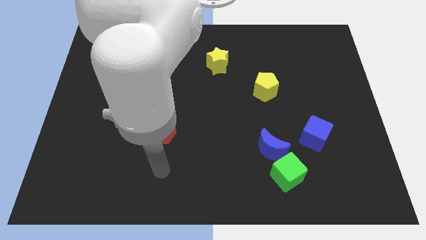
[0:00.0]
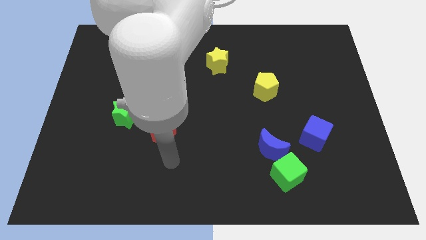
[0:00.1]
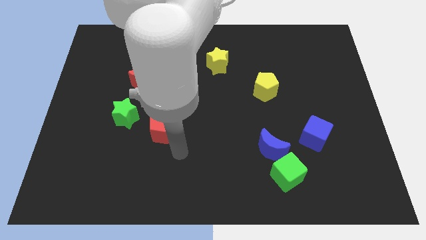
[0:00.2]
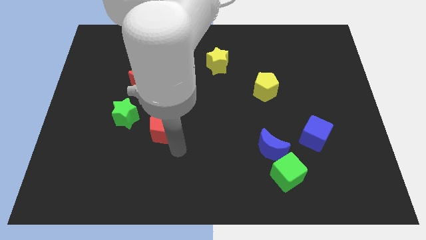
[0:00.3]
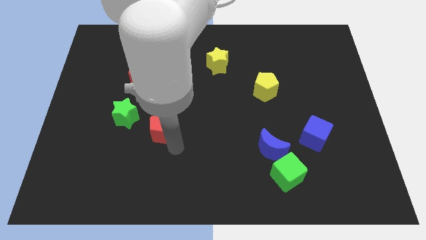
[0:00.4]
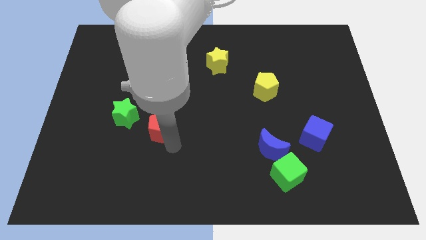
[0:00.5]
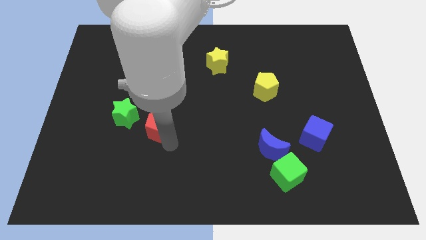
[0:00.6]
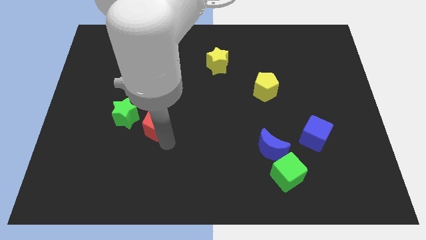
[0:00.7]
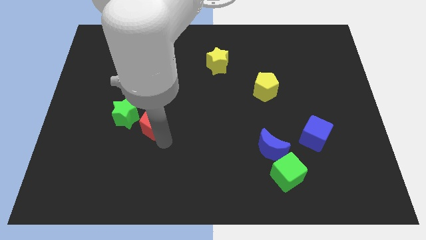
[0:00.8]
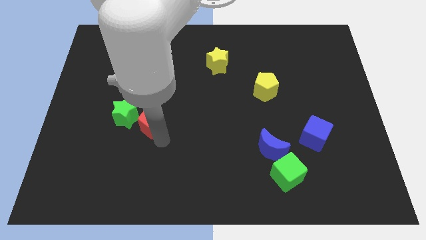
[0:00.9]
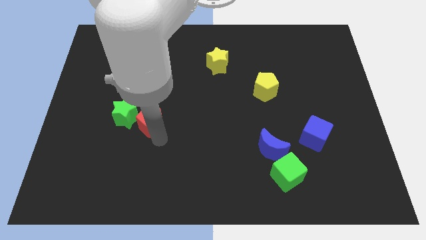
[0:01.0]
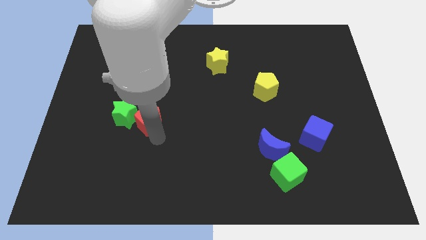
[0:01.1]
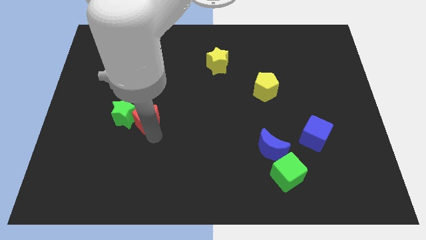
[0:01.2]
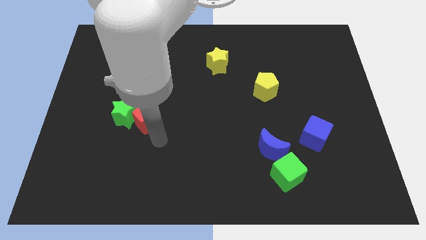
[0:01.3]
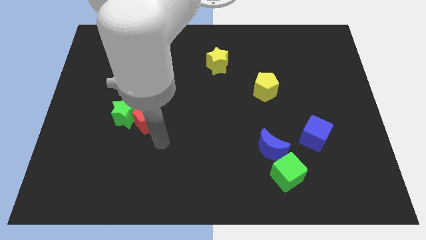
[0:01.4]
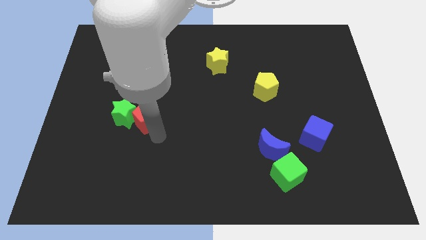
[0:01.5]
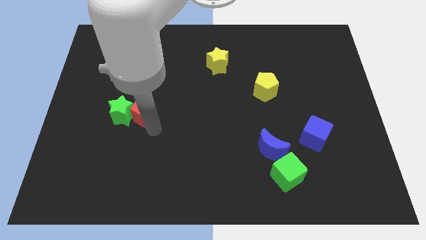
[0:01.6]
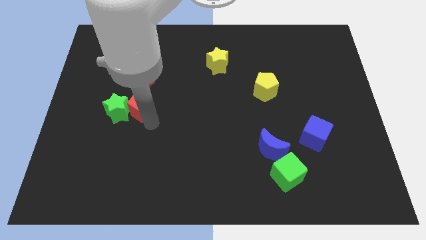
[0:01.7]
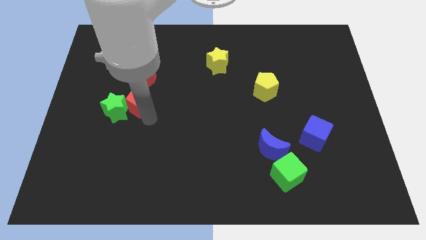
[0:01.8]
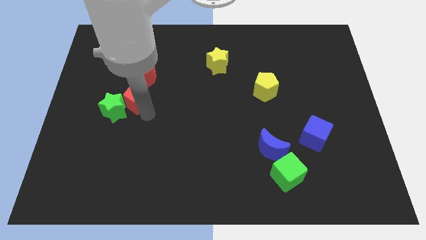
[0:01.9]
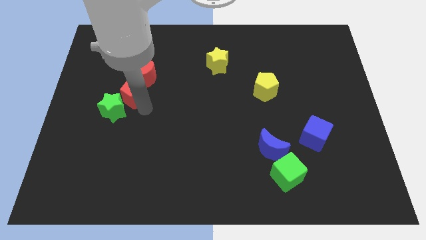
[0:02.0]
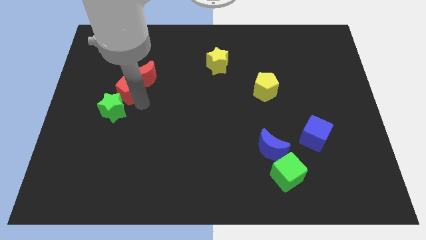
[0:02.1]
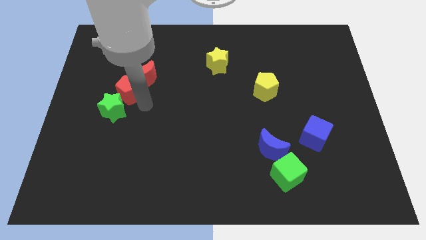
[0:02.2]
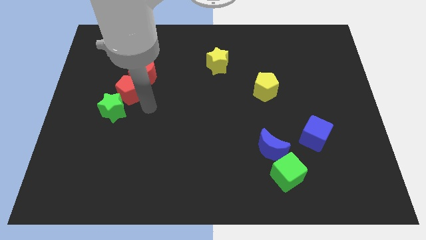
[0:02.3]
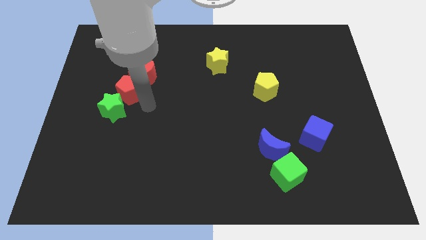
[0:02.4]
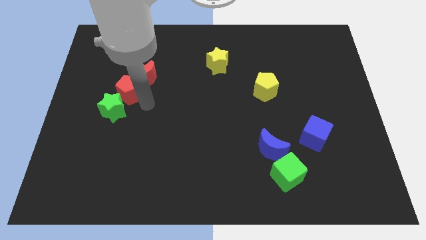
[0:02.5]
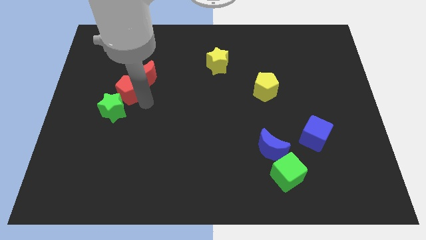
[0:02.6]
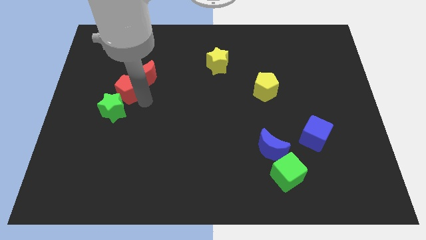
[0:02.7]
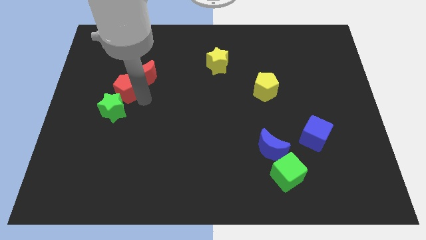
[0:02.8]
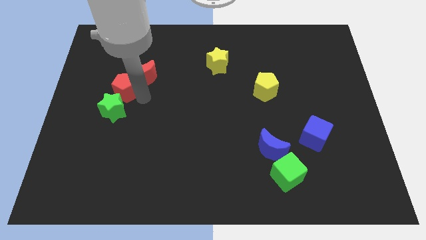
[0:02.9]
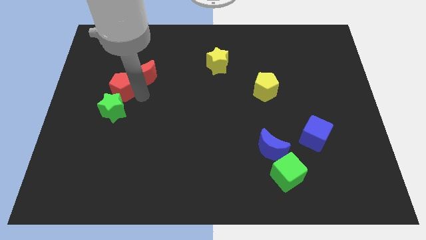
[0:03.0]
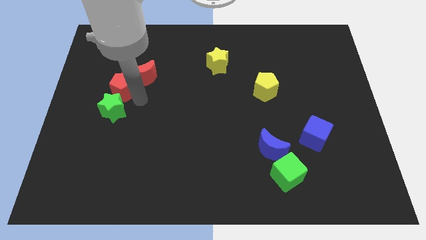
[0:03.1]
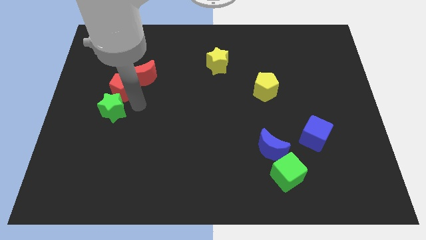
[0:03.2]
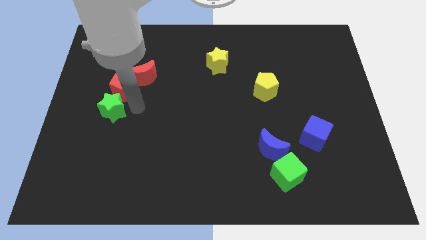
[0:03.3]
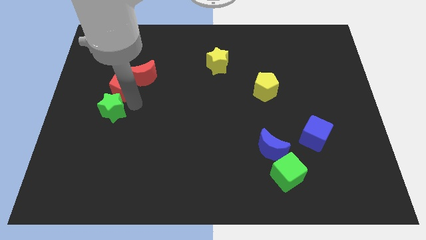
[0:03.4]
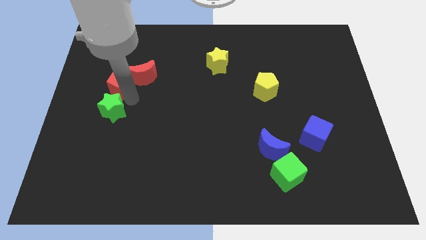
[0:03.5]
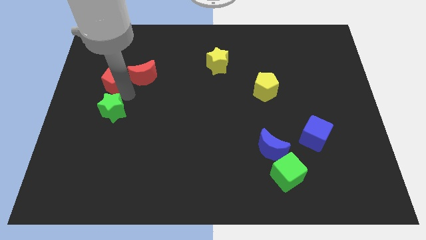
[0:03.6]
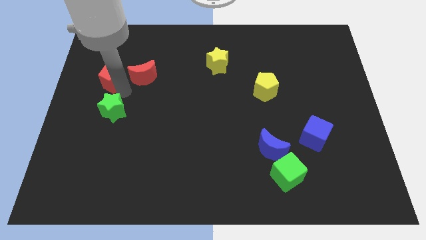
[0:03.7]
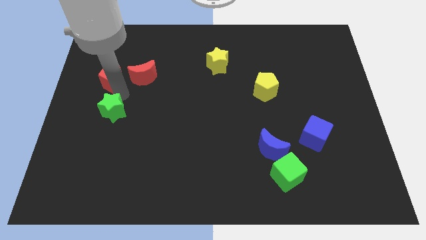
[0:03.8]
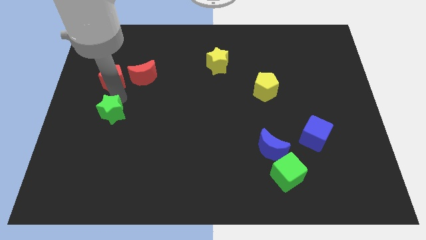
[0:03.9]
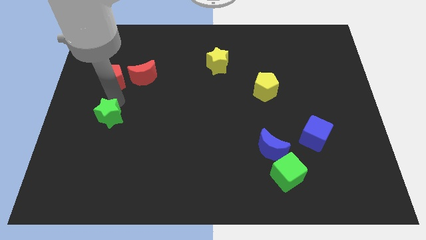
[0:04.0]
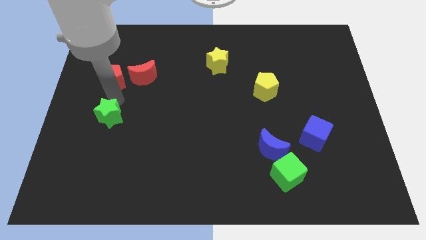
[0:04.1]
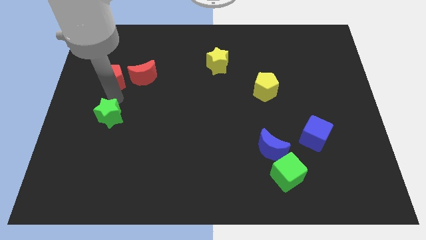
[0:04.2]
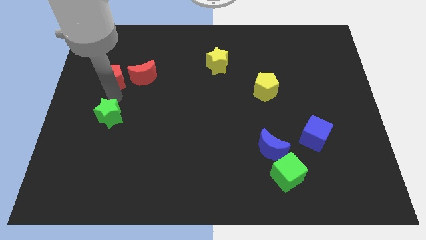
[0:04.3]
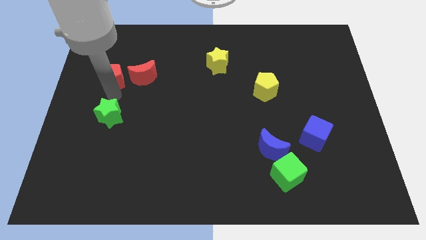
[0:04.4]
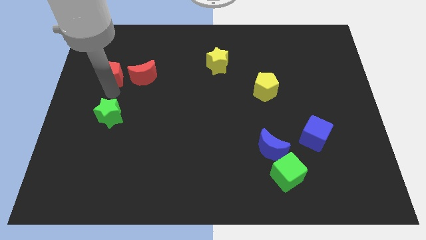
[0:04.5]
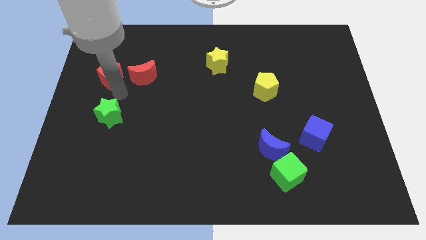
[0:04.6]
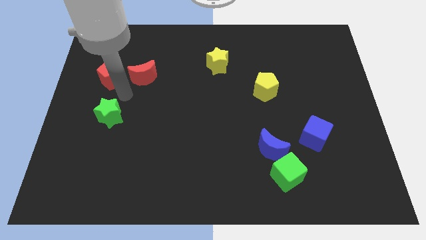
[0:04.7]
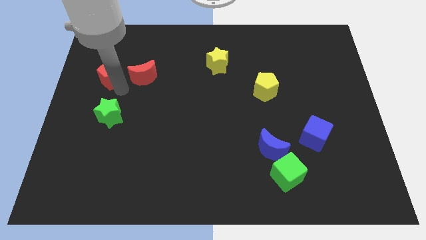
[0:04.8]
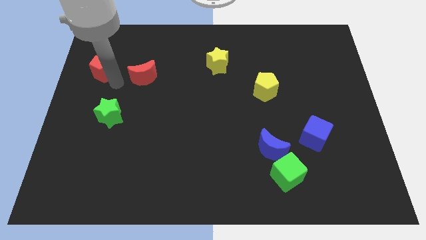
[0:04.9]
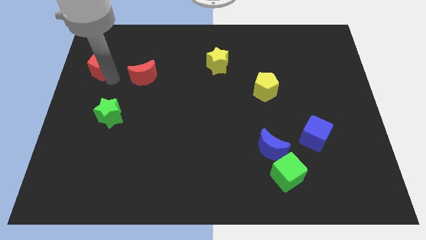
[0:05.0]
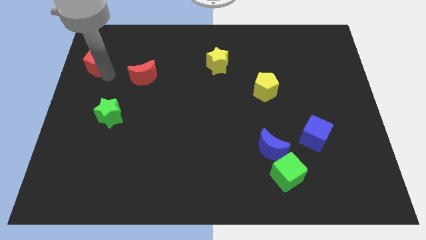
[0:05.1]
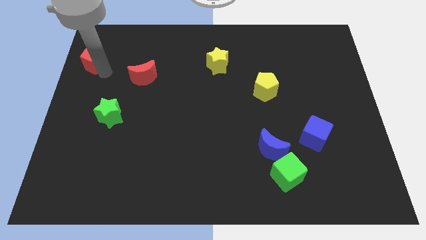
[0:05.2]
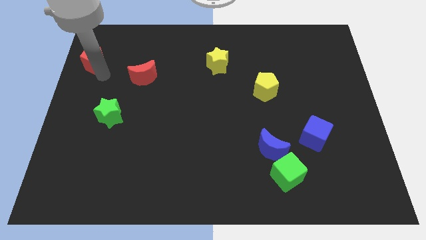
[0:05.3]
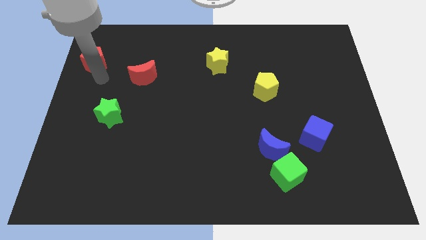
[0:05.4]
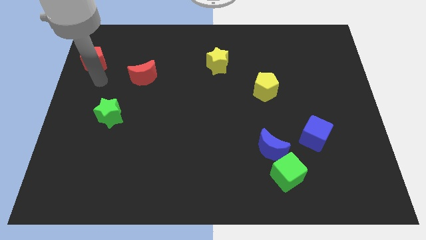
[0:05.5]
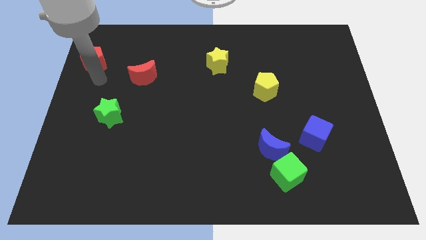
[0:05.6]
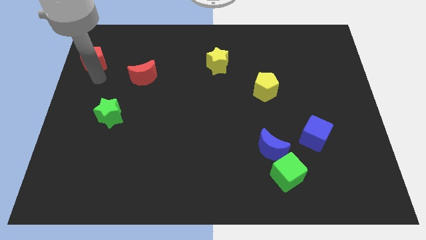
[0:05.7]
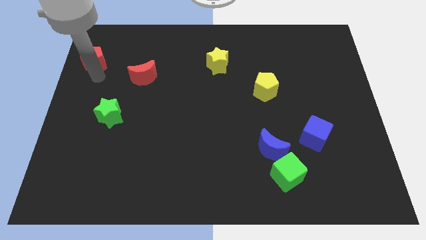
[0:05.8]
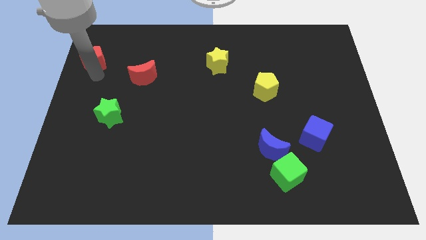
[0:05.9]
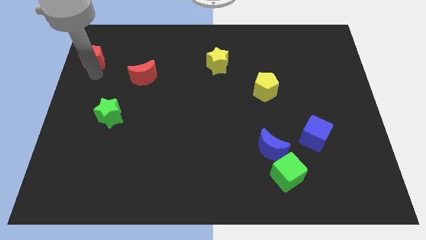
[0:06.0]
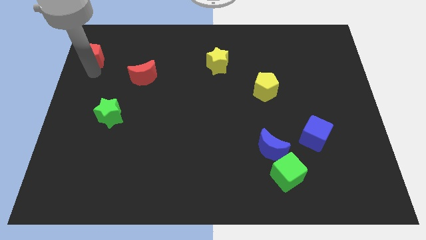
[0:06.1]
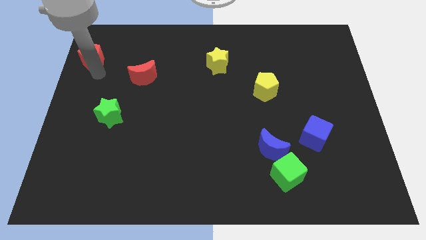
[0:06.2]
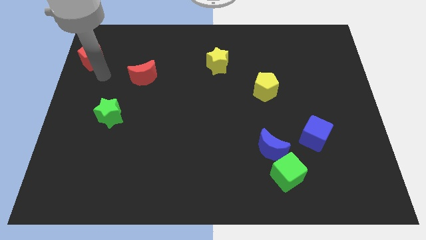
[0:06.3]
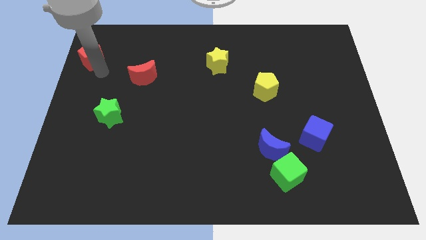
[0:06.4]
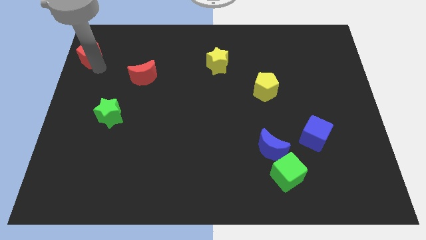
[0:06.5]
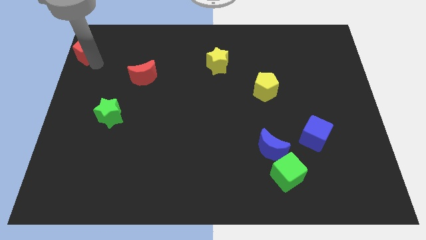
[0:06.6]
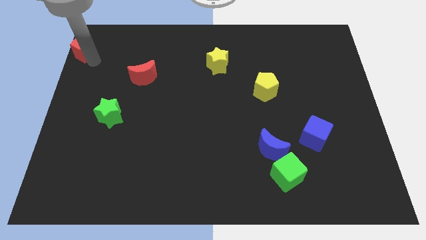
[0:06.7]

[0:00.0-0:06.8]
put the red pentagon to the top left corner

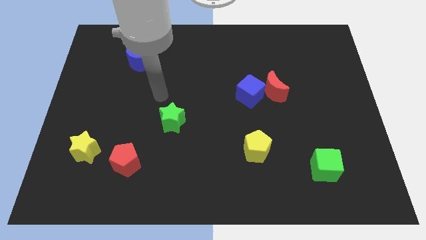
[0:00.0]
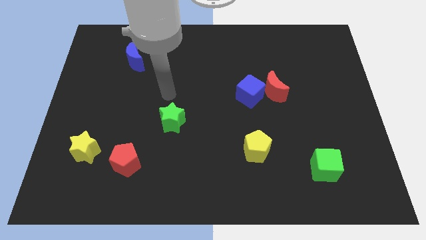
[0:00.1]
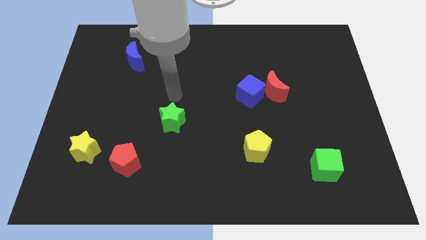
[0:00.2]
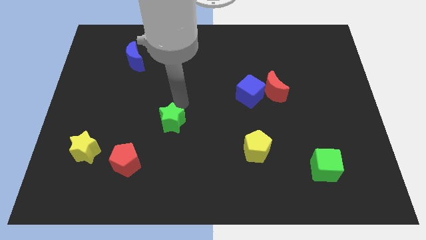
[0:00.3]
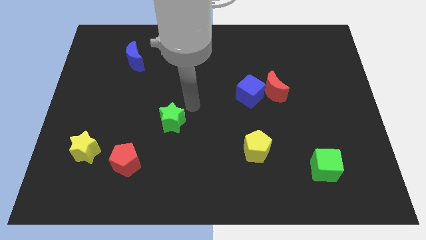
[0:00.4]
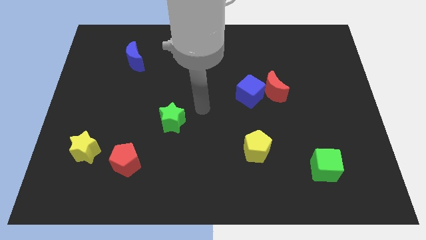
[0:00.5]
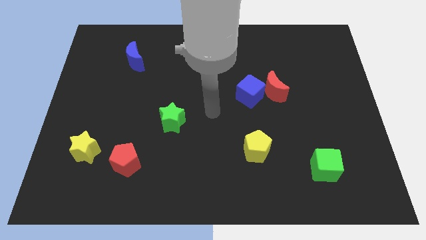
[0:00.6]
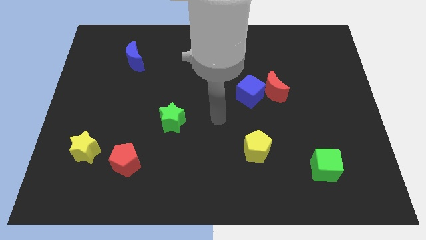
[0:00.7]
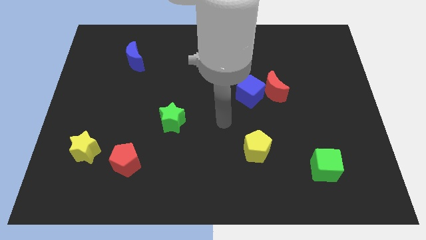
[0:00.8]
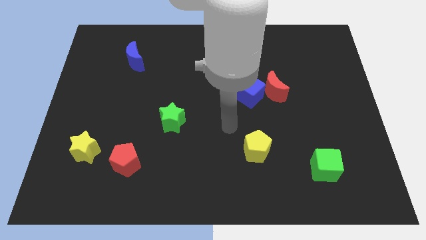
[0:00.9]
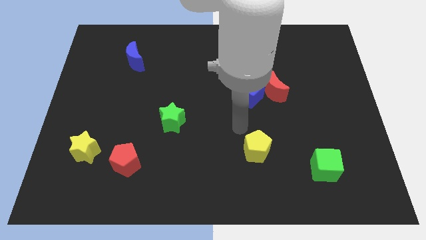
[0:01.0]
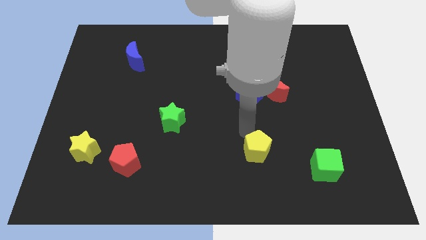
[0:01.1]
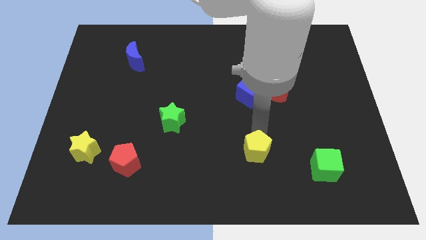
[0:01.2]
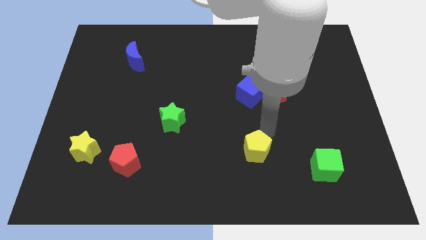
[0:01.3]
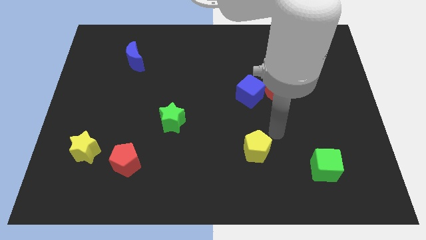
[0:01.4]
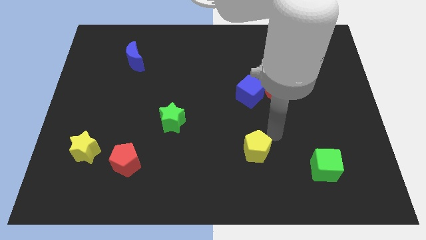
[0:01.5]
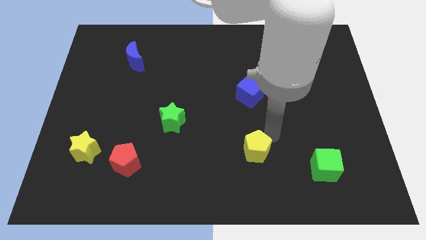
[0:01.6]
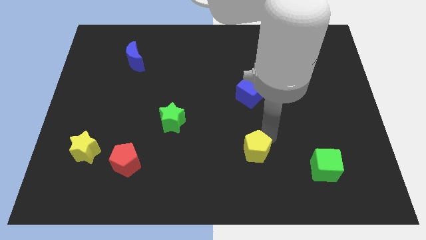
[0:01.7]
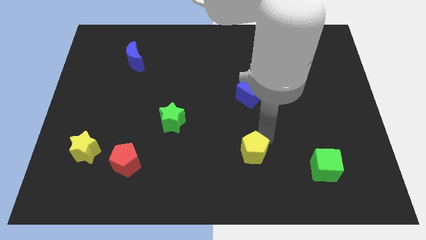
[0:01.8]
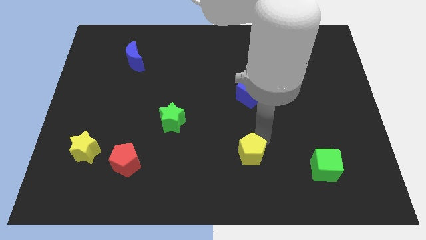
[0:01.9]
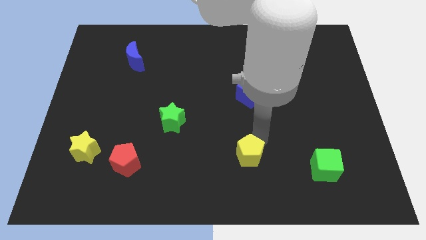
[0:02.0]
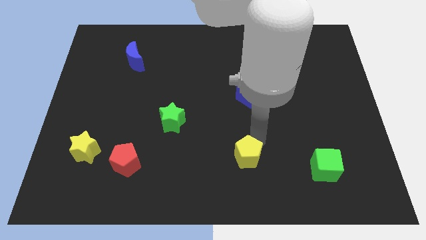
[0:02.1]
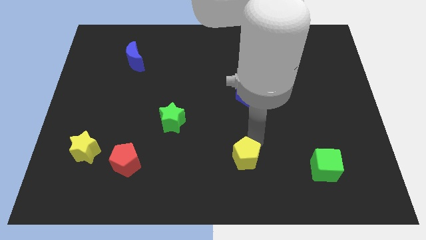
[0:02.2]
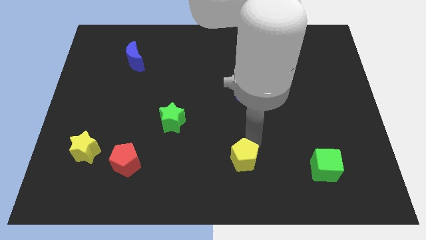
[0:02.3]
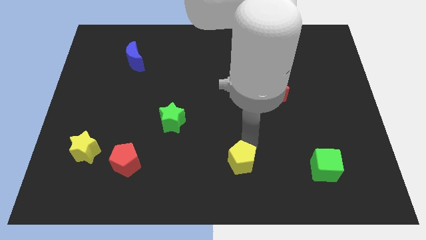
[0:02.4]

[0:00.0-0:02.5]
put the yellow pentagon to the bottom side
